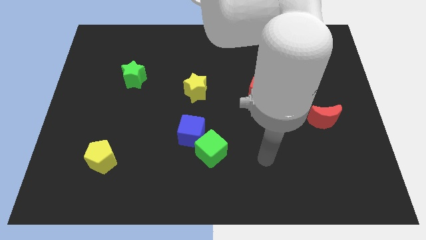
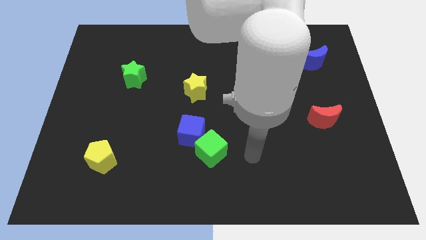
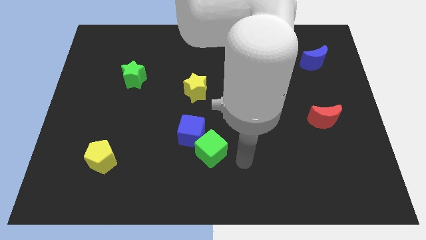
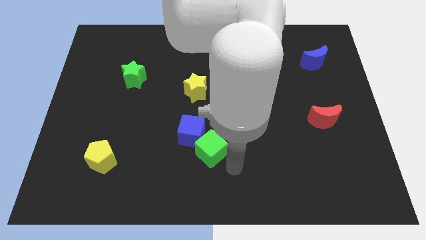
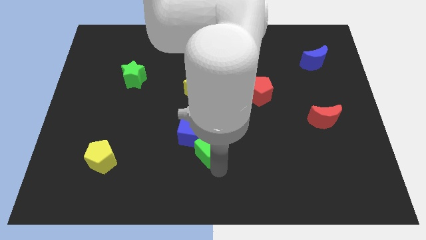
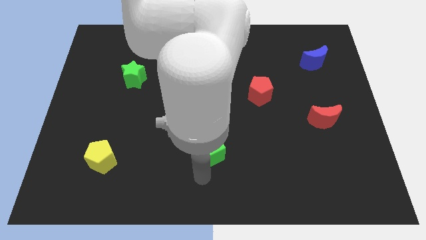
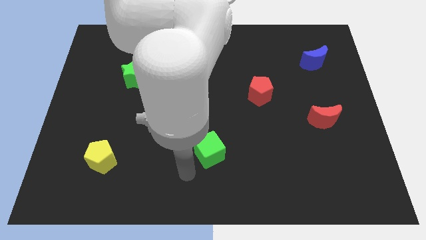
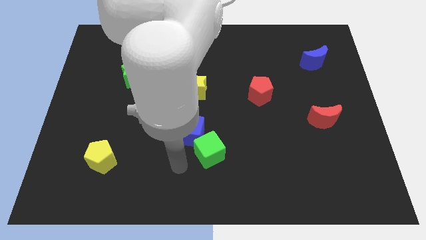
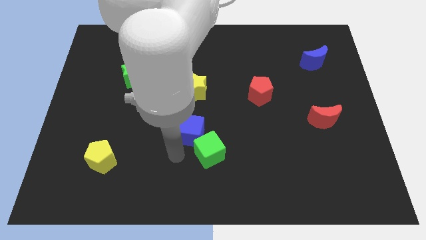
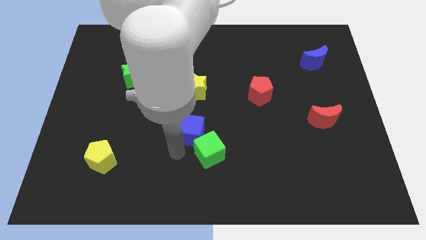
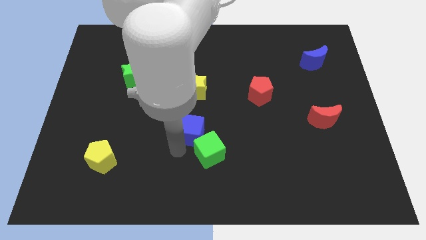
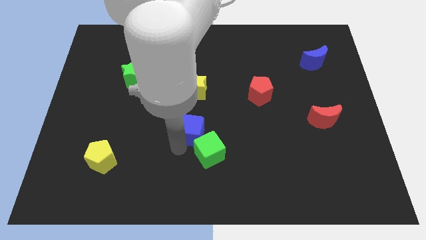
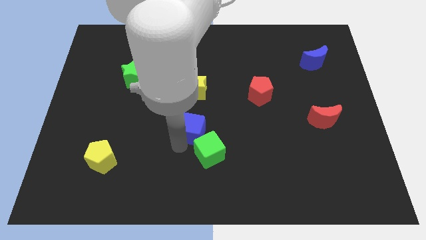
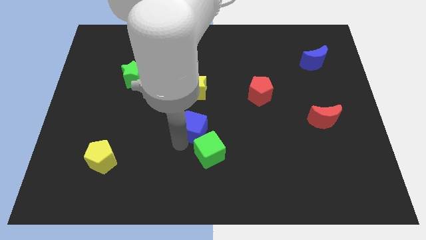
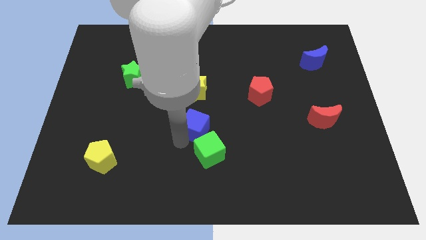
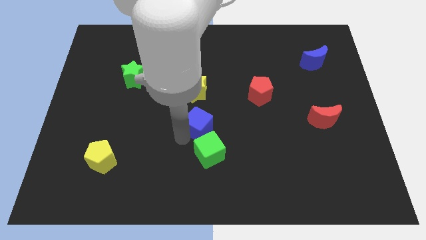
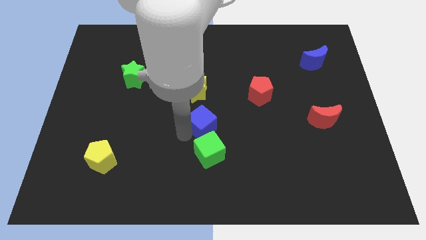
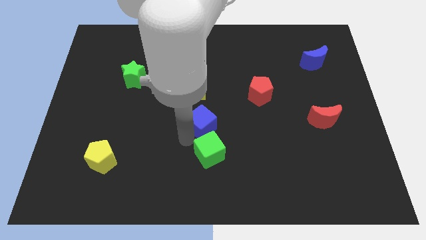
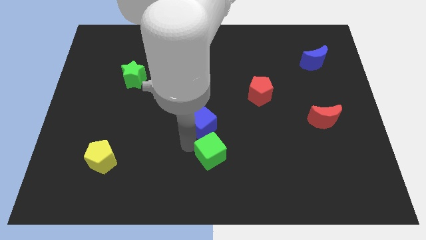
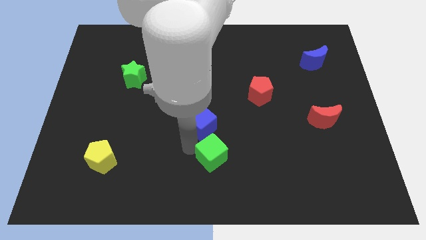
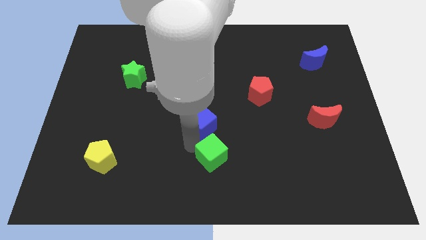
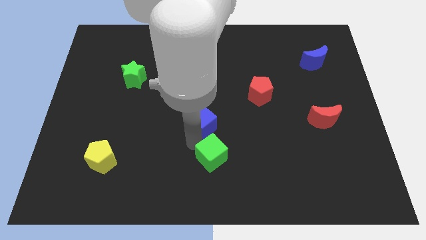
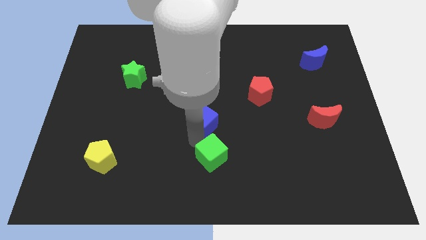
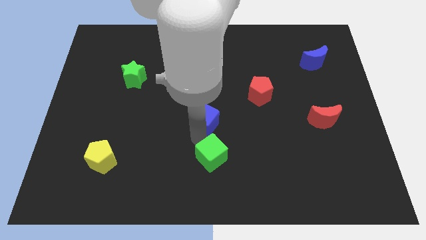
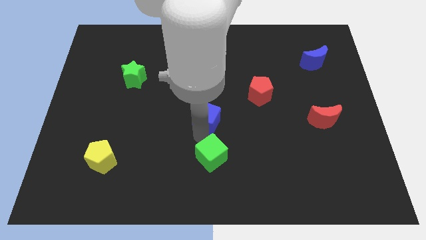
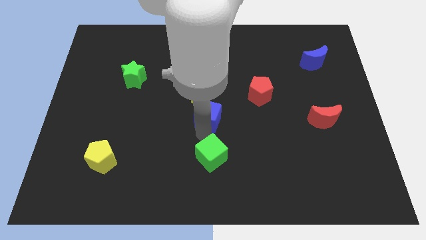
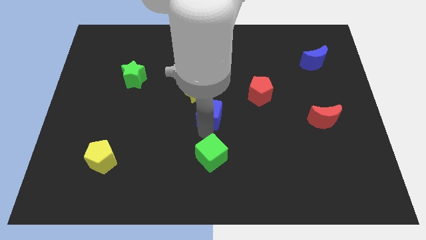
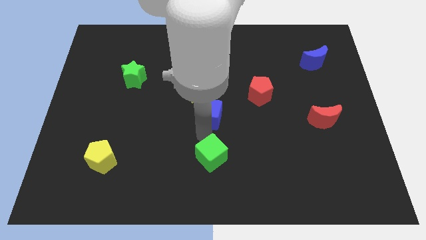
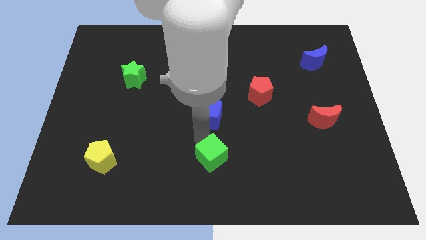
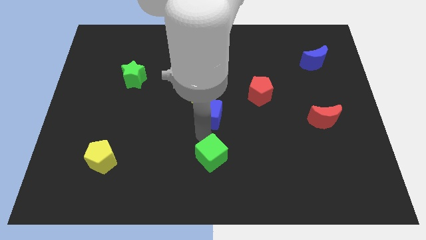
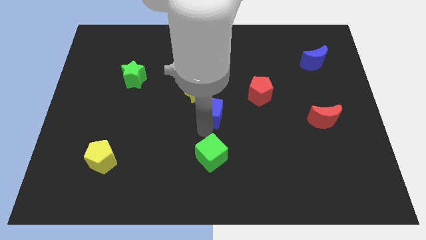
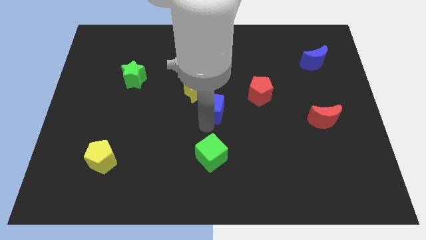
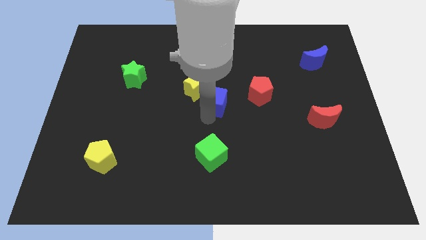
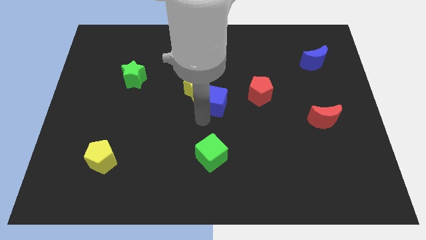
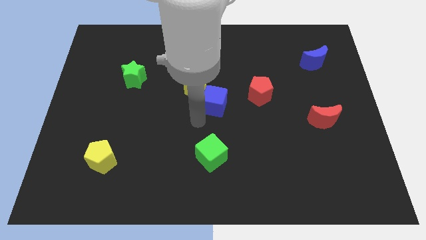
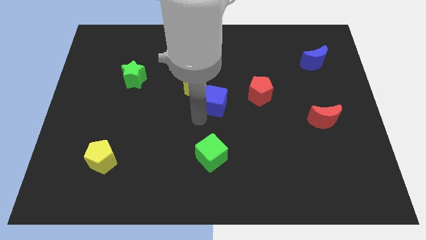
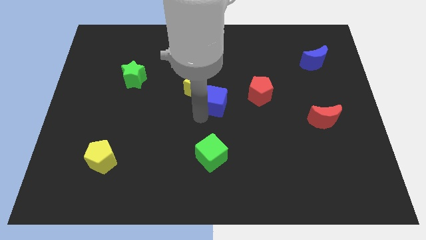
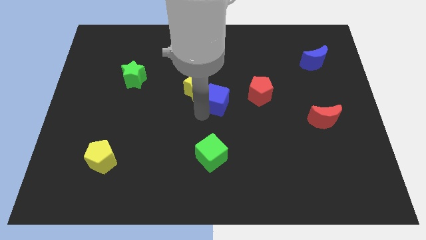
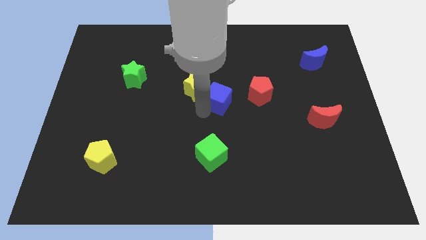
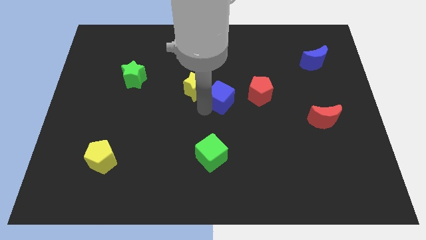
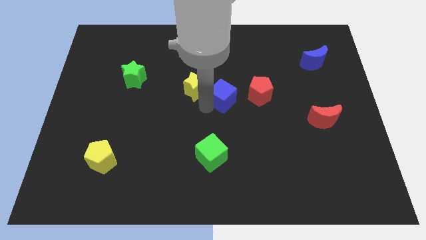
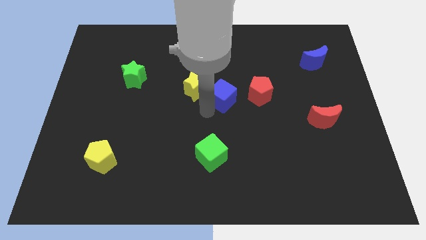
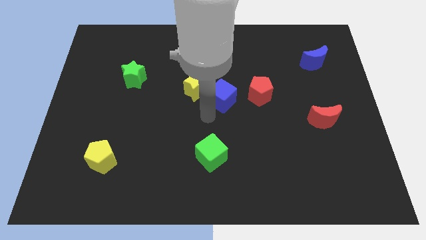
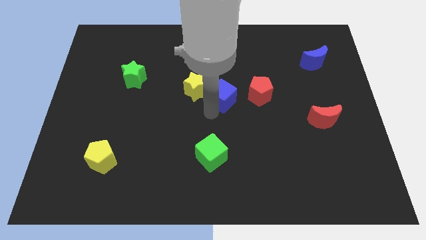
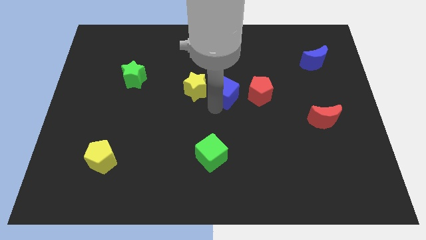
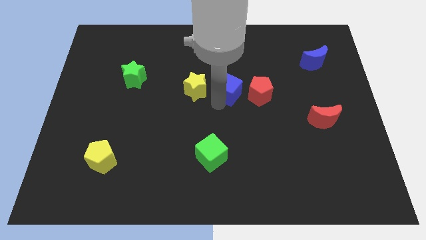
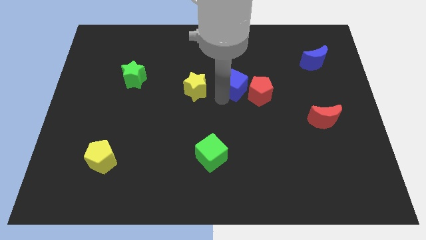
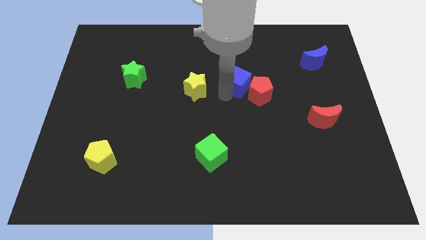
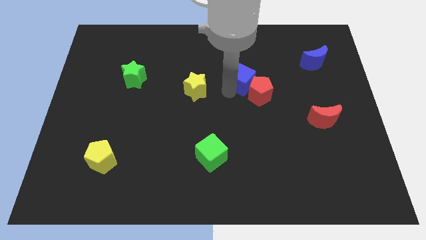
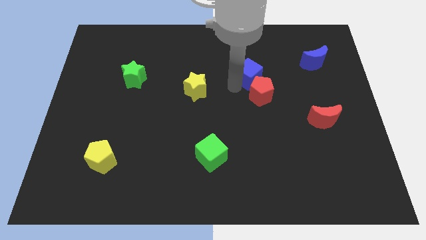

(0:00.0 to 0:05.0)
push the blue cube up and right

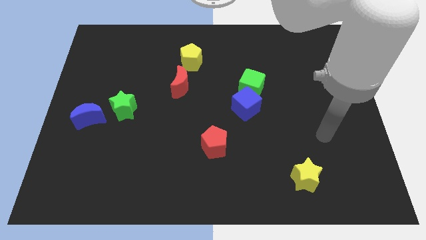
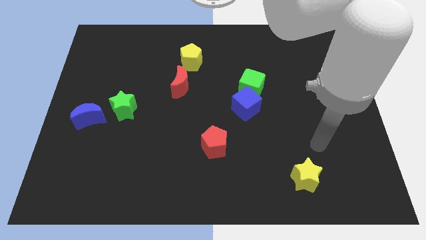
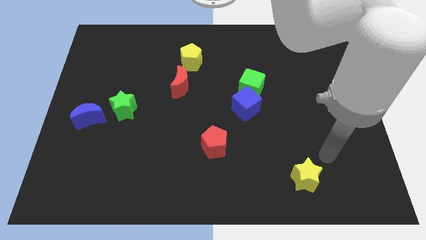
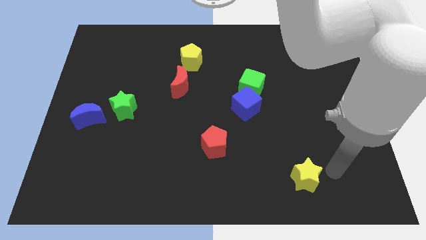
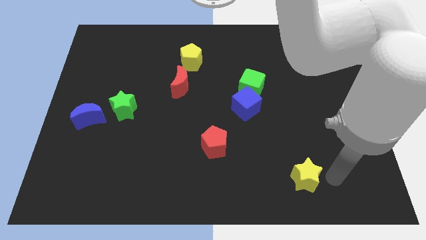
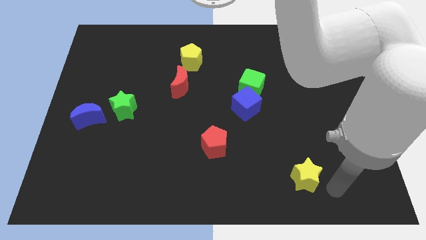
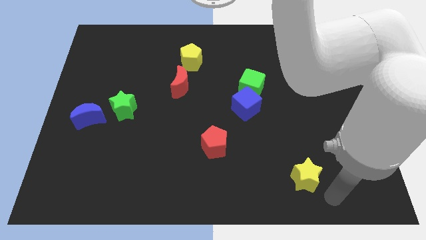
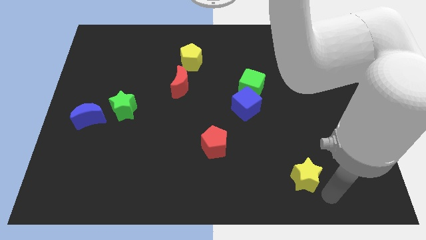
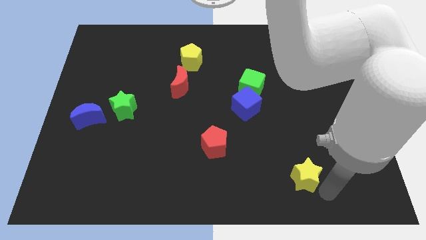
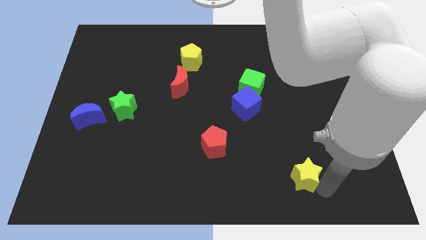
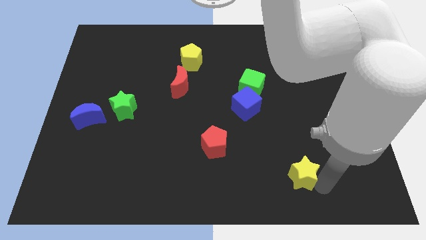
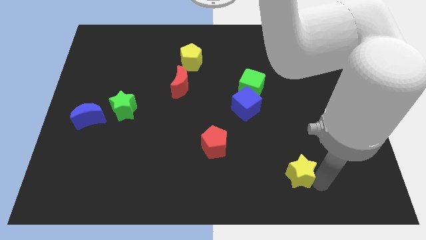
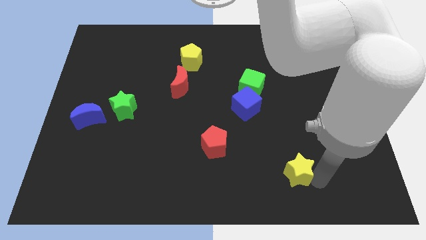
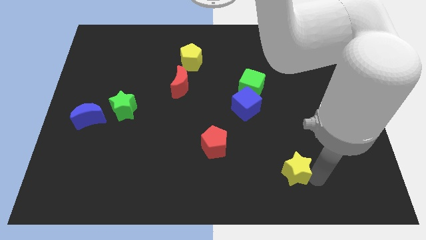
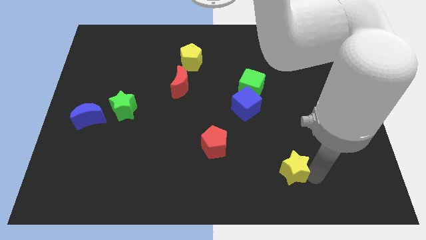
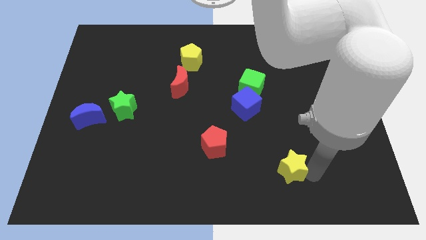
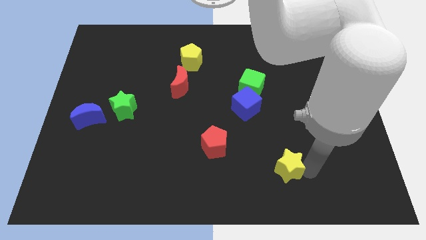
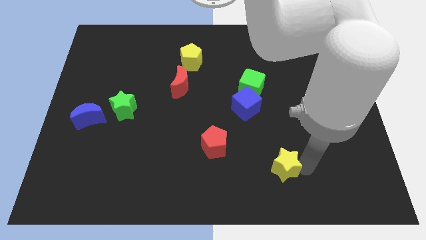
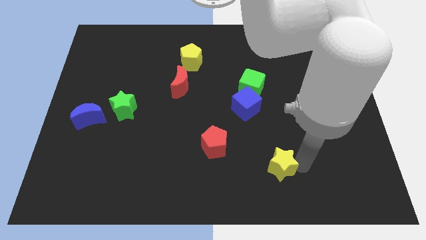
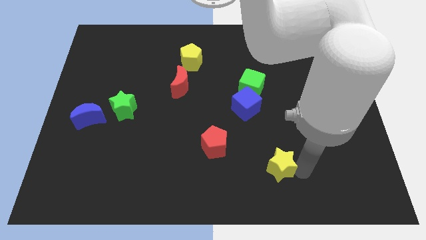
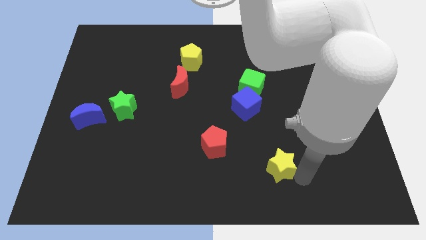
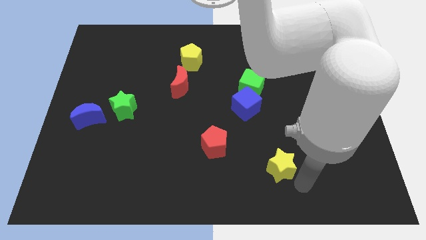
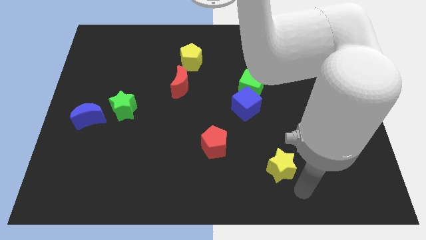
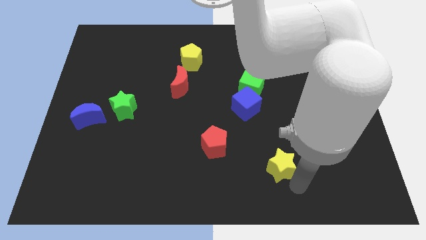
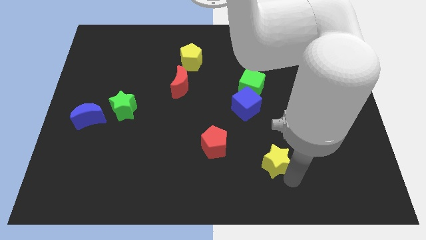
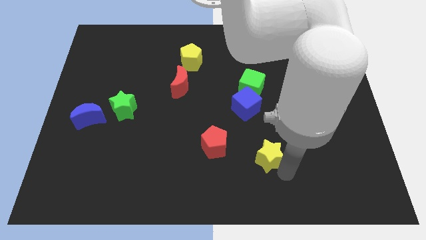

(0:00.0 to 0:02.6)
slide the yellow star up and then to the left a little

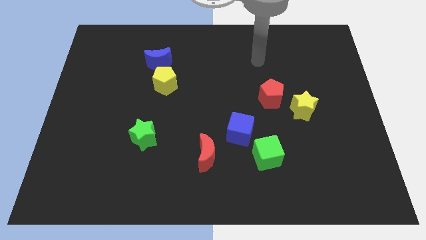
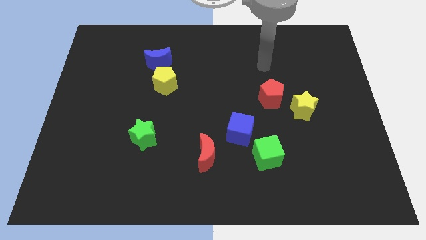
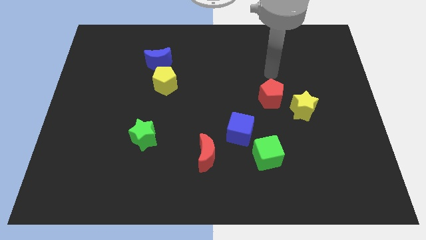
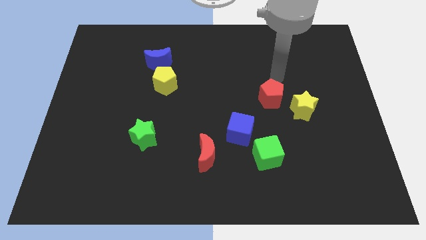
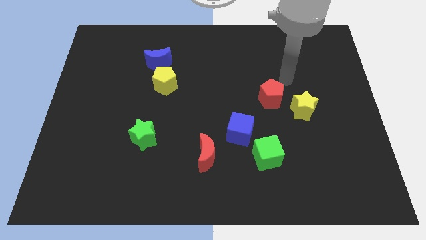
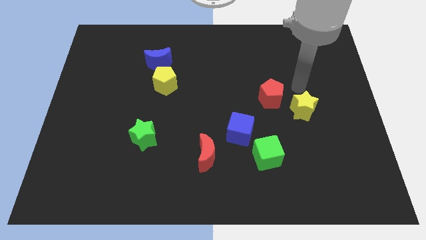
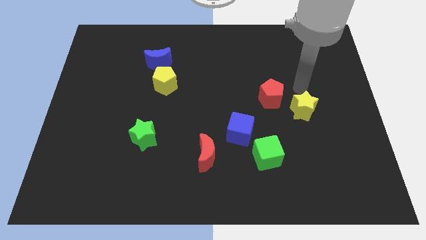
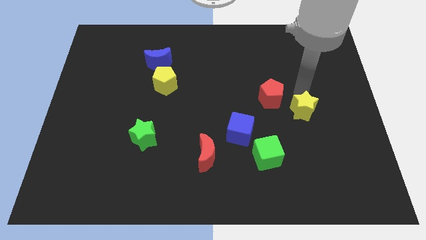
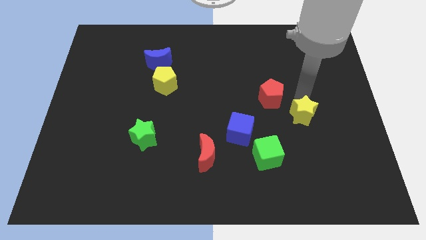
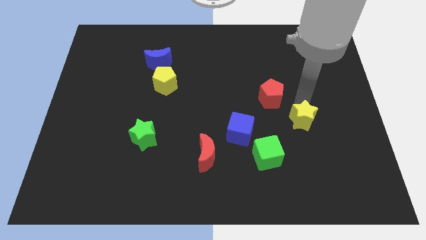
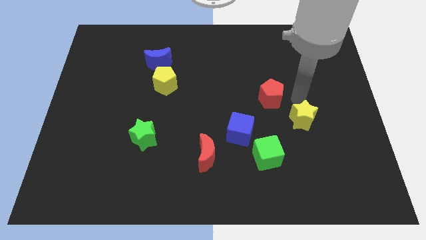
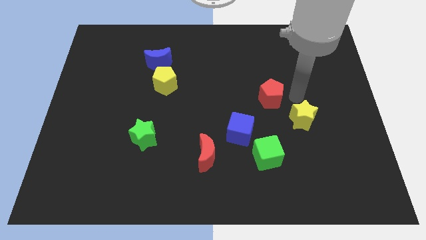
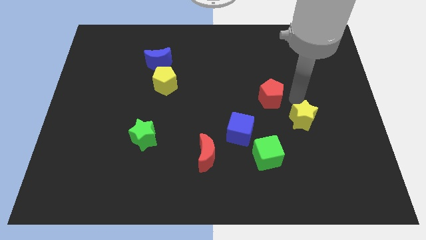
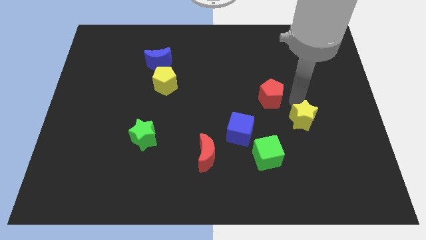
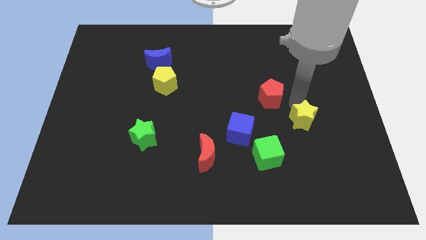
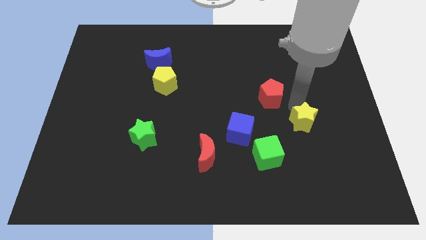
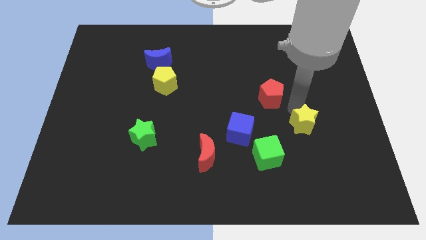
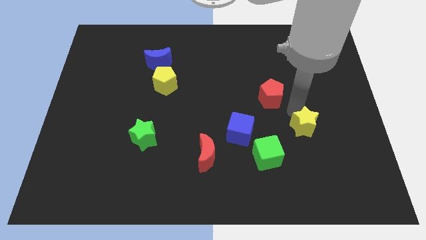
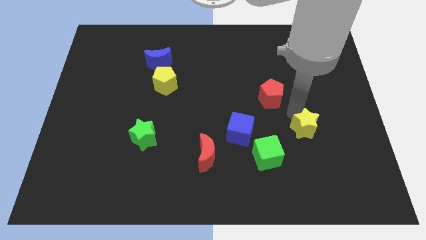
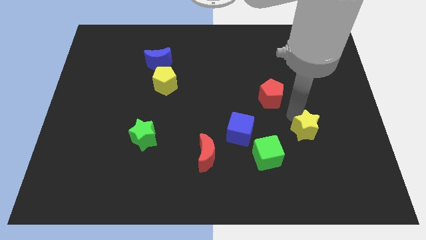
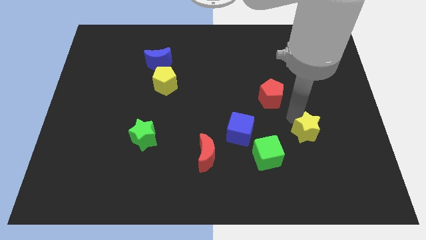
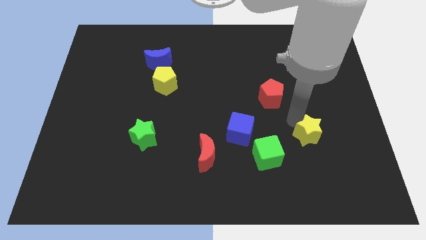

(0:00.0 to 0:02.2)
slightly push the yellow star downwards
